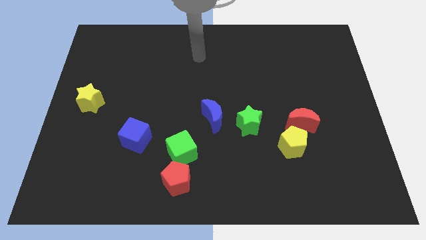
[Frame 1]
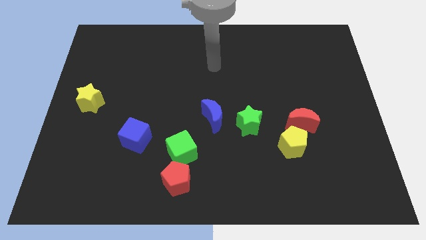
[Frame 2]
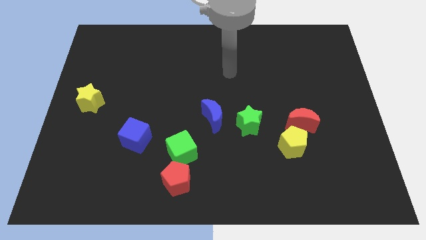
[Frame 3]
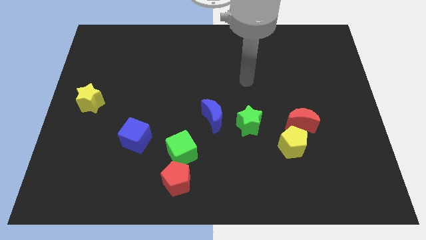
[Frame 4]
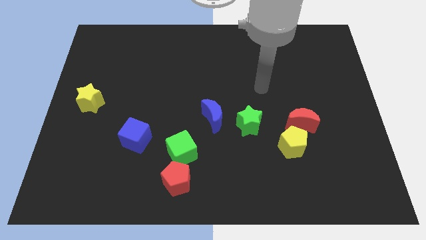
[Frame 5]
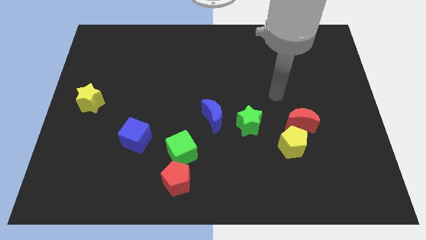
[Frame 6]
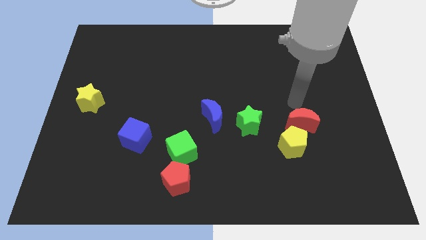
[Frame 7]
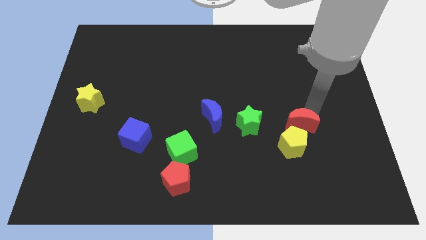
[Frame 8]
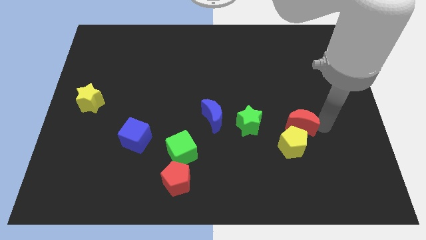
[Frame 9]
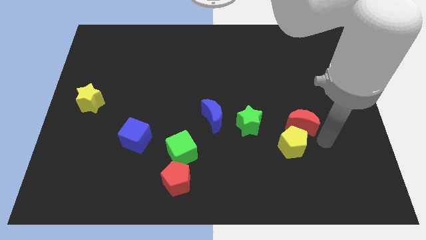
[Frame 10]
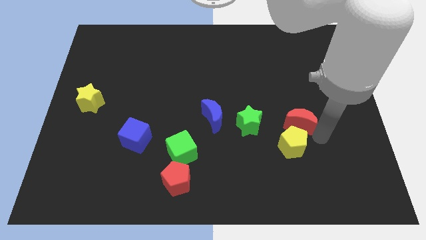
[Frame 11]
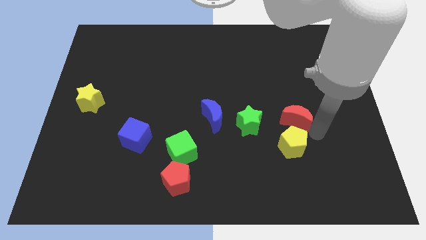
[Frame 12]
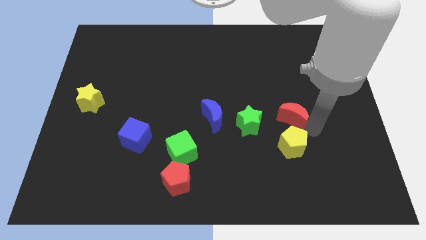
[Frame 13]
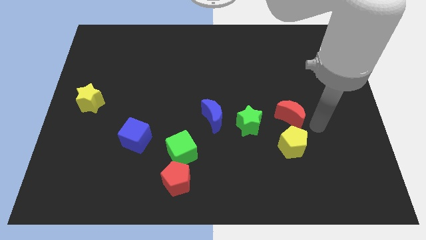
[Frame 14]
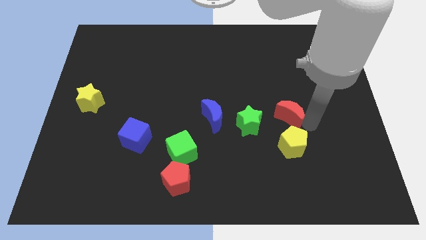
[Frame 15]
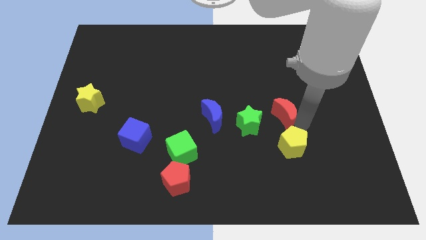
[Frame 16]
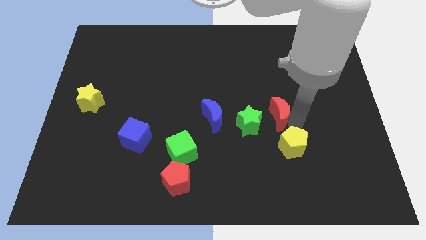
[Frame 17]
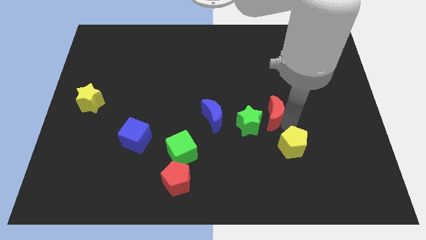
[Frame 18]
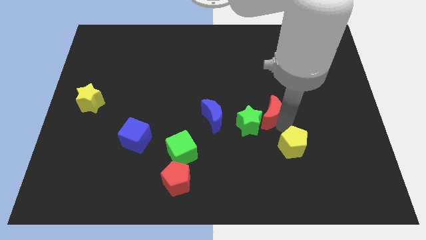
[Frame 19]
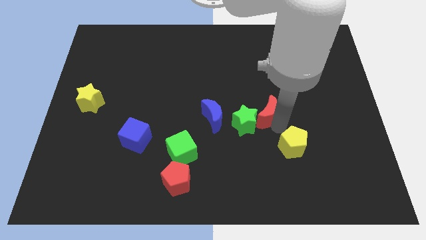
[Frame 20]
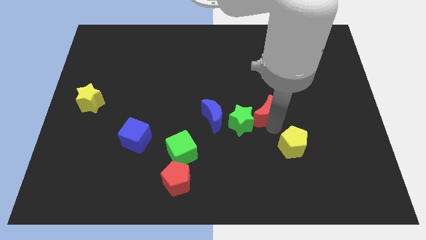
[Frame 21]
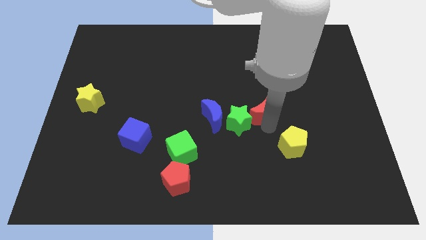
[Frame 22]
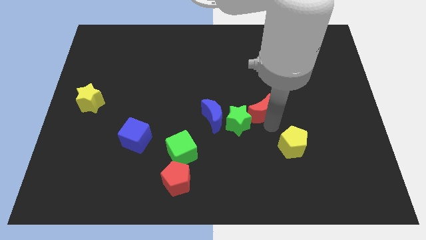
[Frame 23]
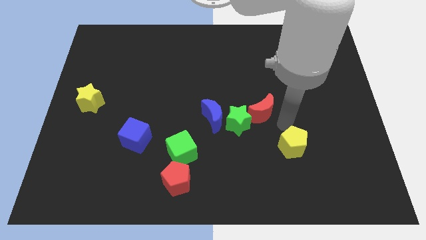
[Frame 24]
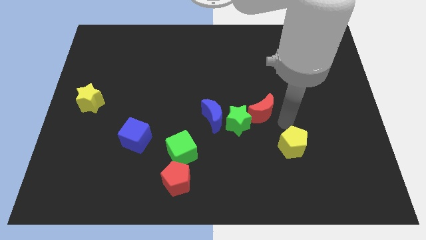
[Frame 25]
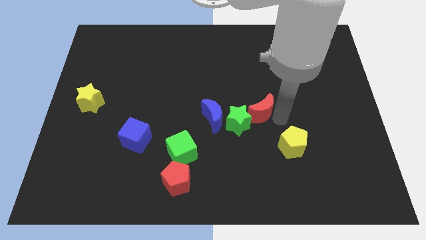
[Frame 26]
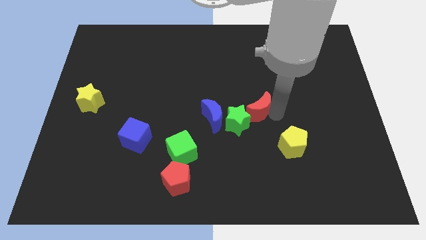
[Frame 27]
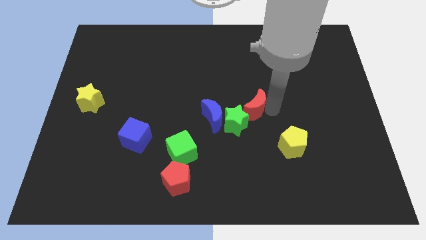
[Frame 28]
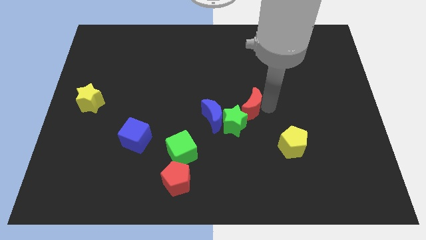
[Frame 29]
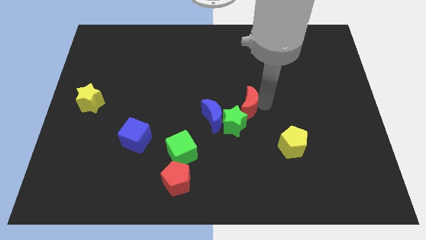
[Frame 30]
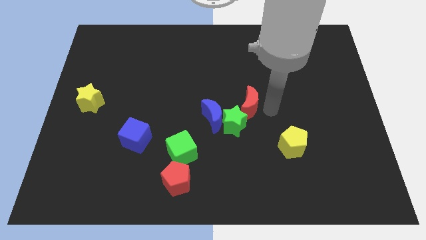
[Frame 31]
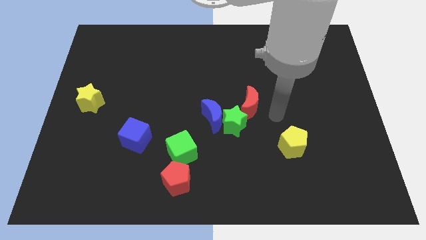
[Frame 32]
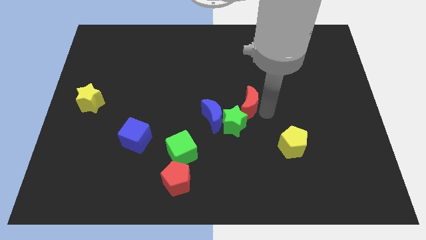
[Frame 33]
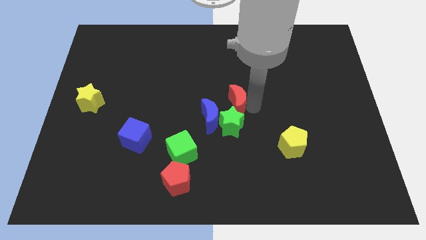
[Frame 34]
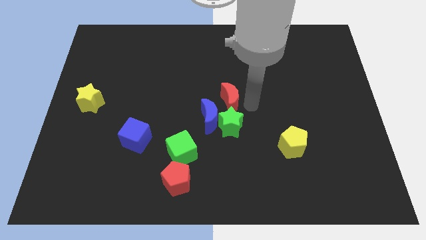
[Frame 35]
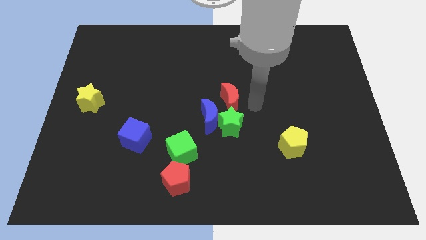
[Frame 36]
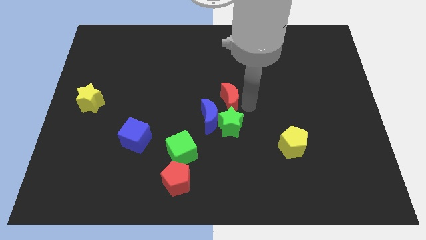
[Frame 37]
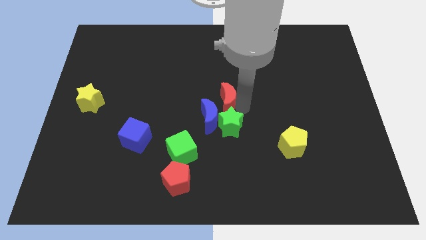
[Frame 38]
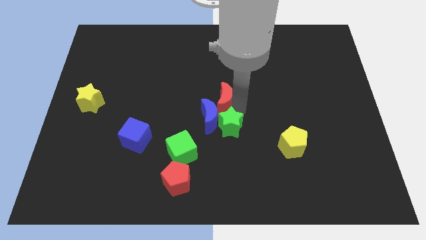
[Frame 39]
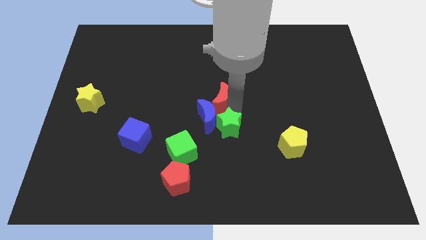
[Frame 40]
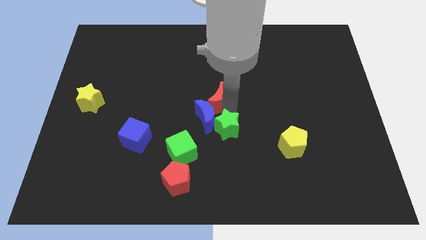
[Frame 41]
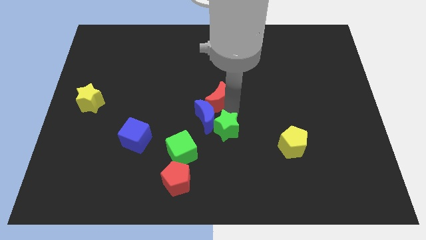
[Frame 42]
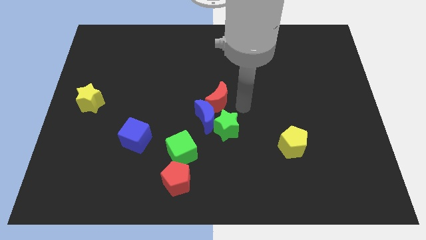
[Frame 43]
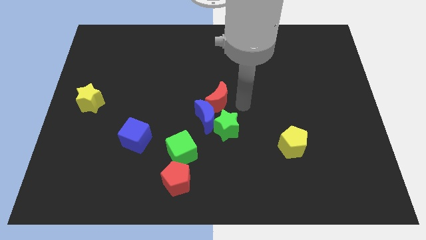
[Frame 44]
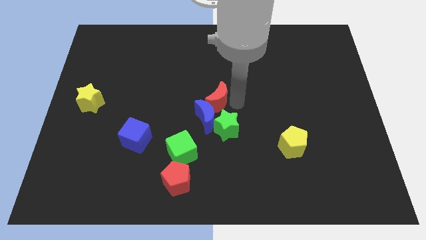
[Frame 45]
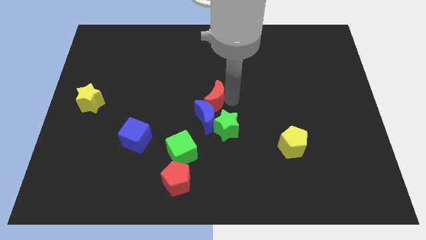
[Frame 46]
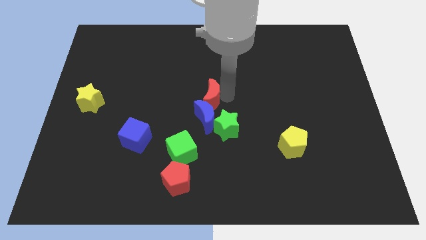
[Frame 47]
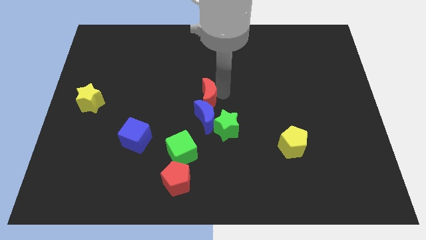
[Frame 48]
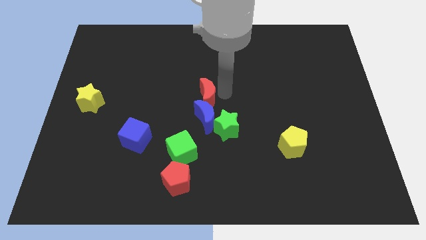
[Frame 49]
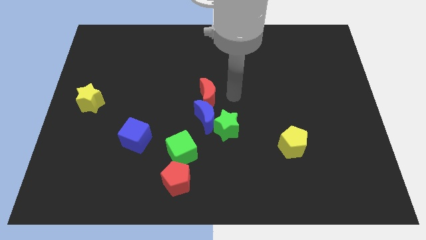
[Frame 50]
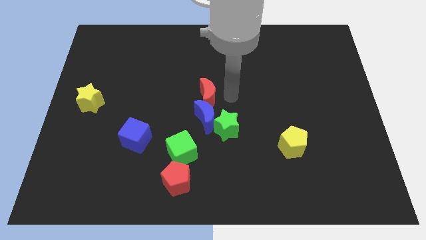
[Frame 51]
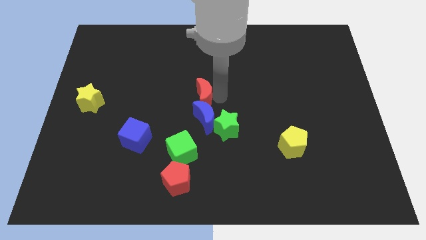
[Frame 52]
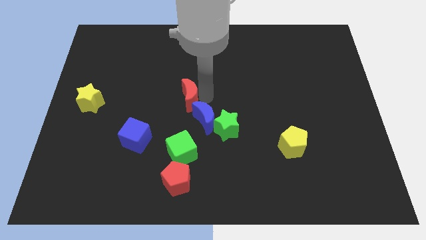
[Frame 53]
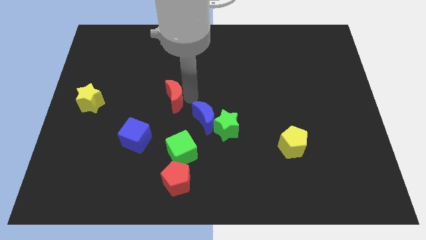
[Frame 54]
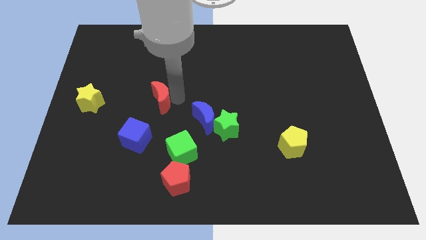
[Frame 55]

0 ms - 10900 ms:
put the red moon above the blue cube

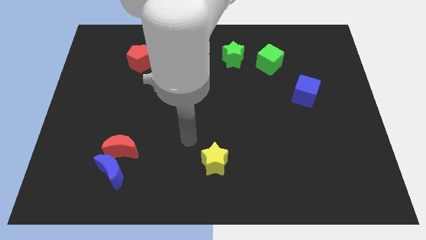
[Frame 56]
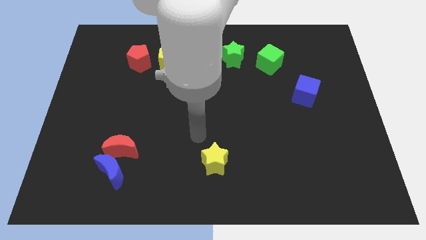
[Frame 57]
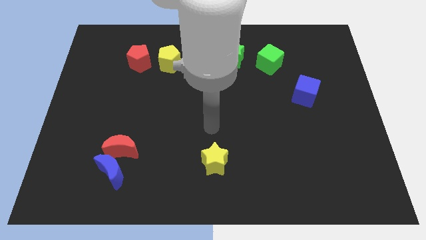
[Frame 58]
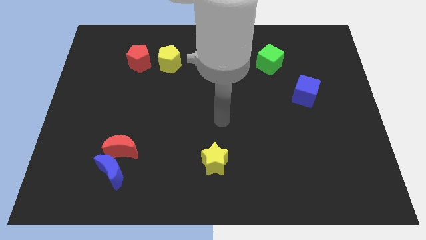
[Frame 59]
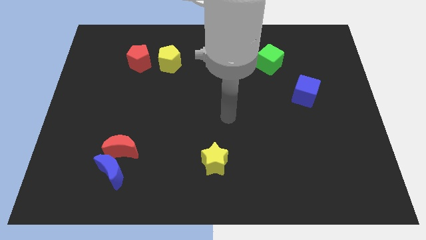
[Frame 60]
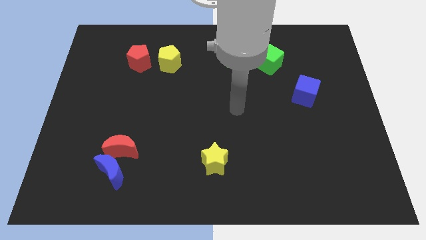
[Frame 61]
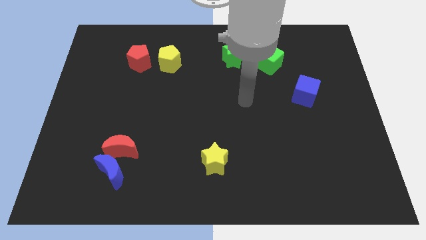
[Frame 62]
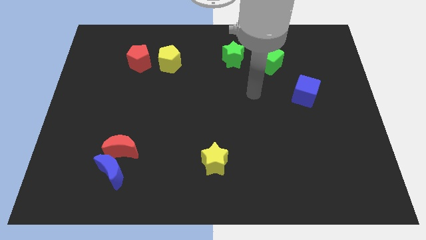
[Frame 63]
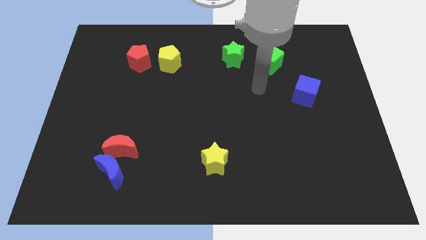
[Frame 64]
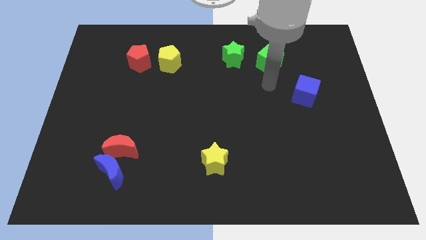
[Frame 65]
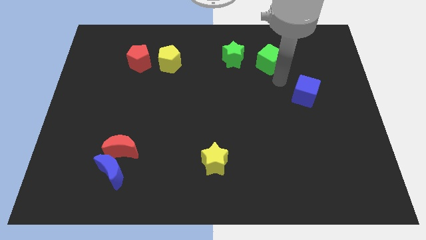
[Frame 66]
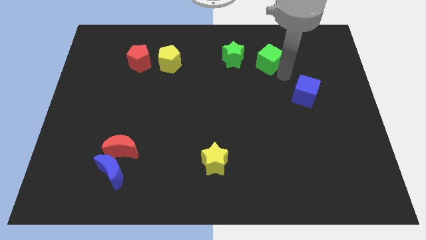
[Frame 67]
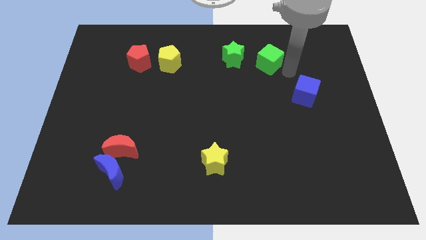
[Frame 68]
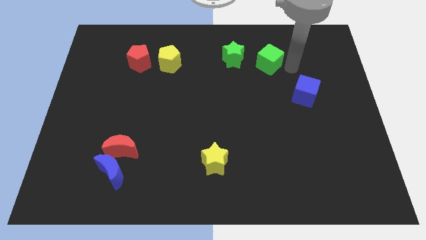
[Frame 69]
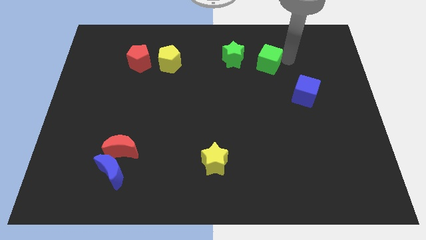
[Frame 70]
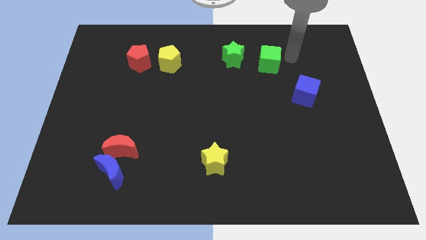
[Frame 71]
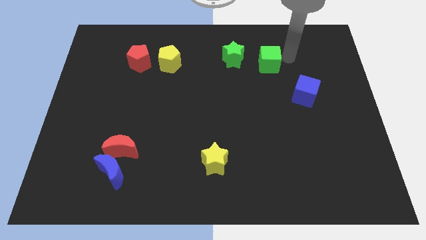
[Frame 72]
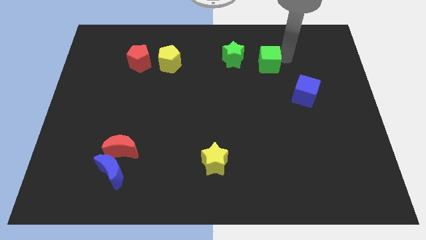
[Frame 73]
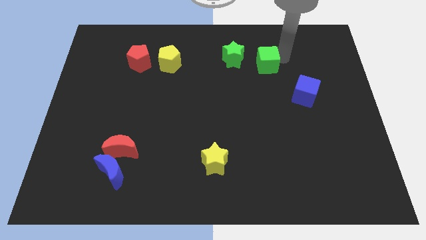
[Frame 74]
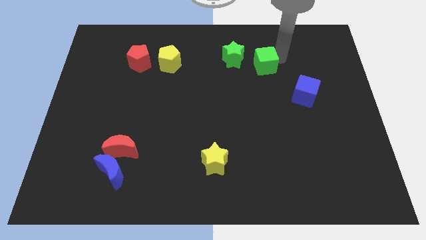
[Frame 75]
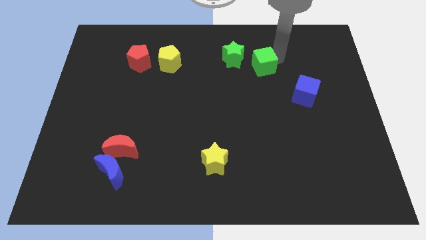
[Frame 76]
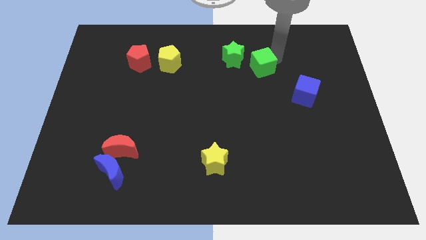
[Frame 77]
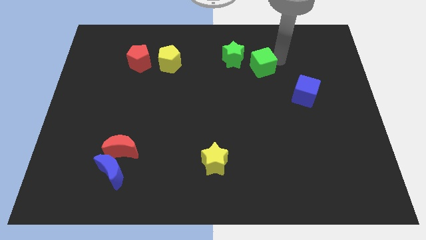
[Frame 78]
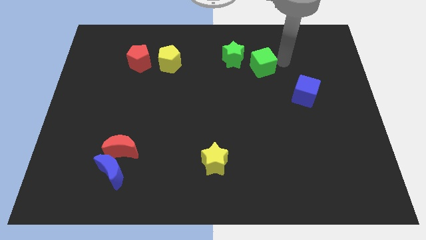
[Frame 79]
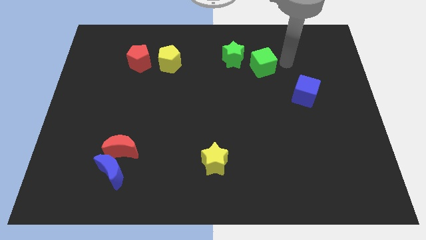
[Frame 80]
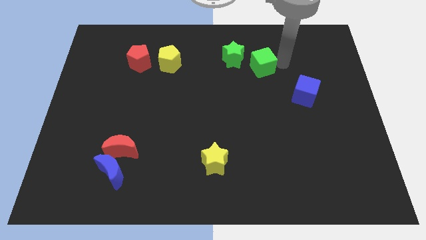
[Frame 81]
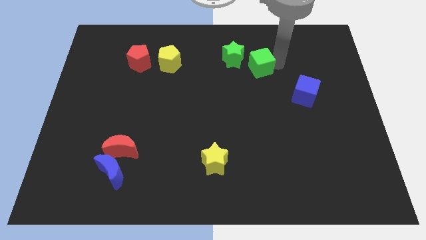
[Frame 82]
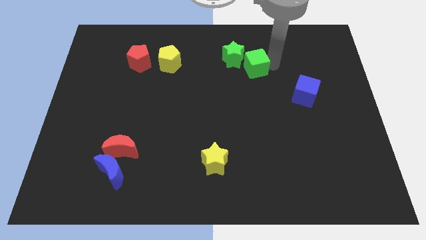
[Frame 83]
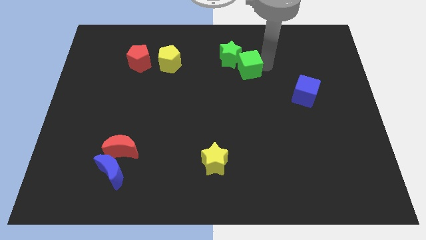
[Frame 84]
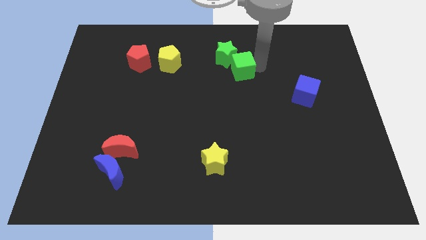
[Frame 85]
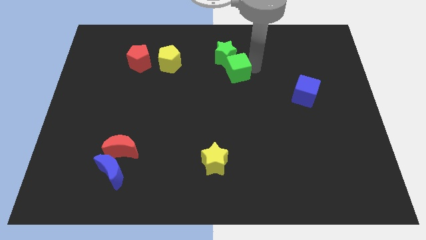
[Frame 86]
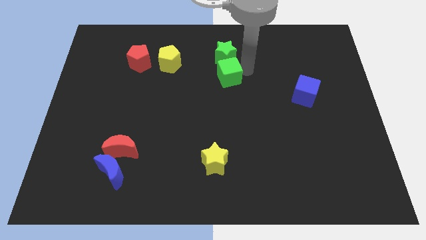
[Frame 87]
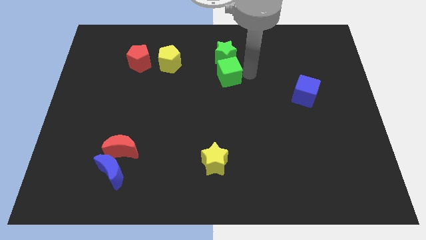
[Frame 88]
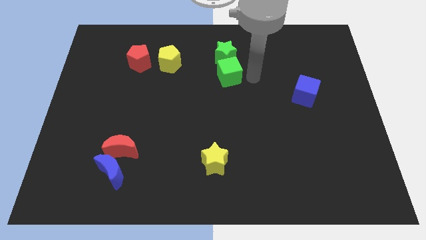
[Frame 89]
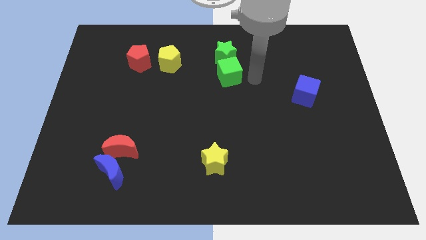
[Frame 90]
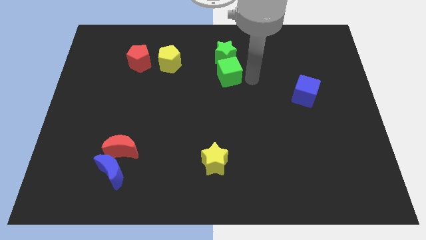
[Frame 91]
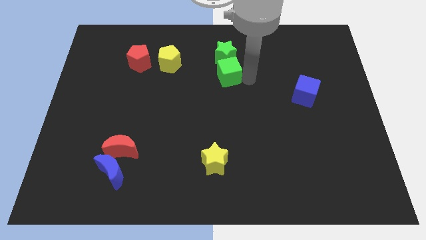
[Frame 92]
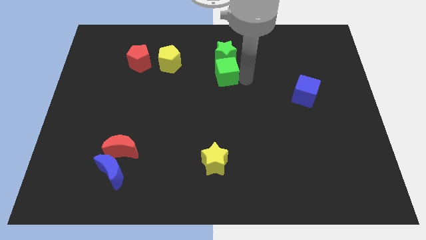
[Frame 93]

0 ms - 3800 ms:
push the green cube to the bottom left side of the green star
